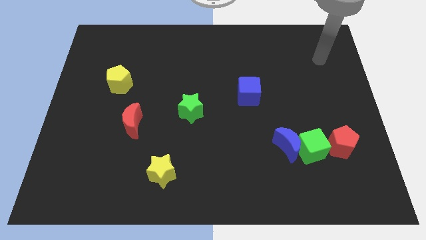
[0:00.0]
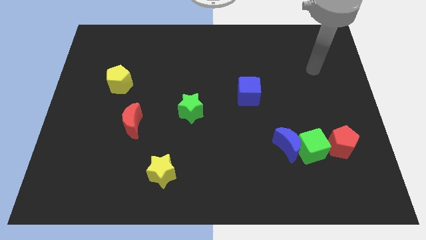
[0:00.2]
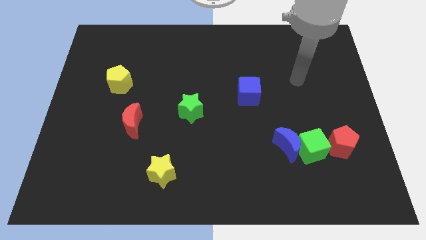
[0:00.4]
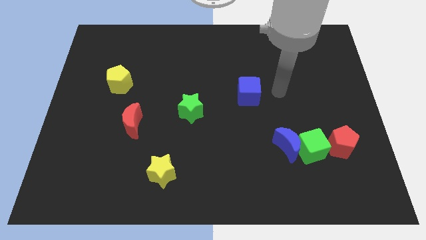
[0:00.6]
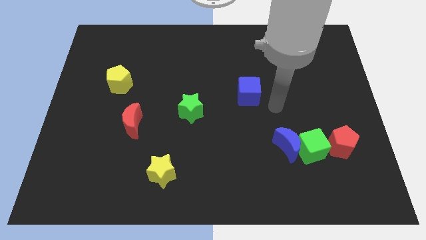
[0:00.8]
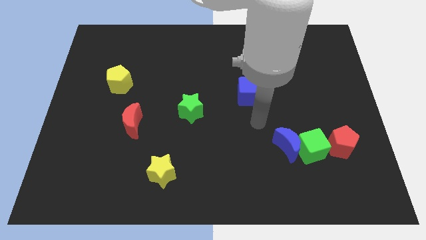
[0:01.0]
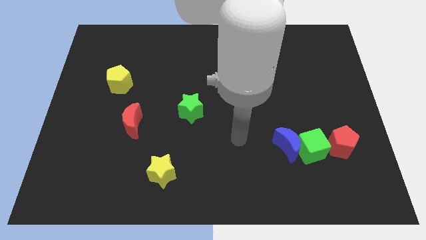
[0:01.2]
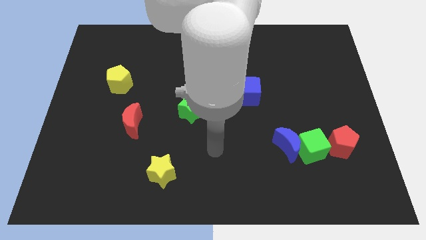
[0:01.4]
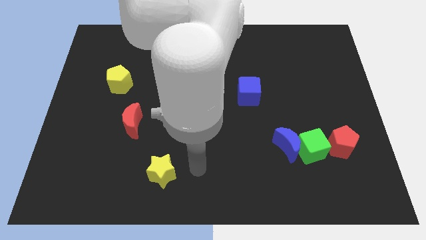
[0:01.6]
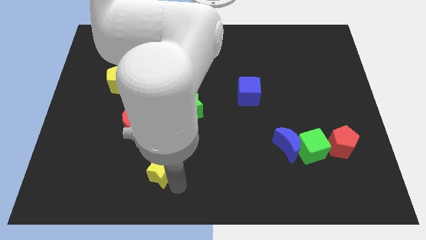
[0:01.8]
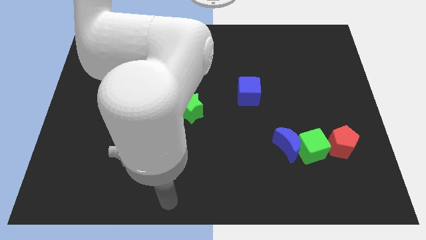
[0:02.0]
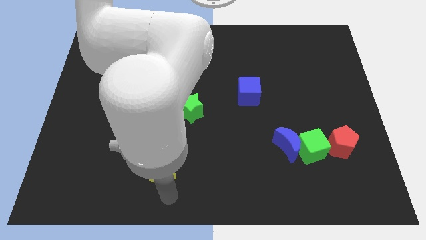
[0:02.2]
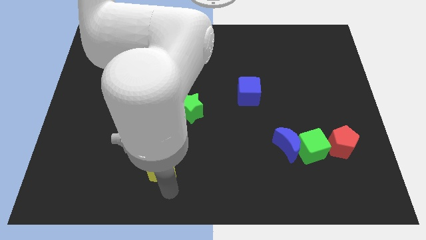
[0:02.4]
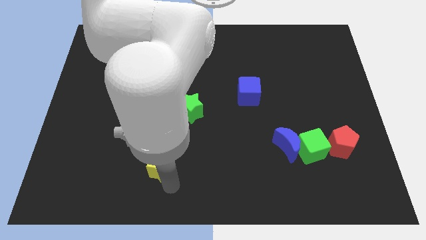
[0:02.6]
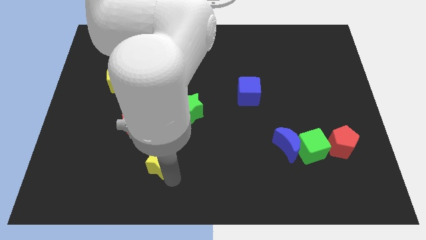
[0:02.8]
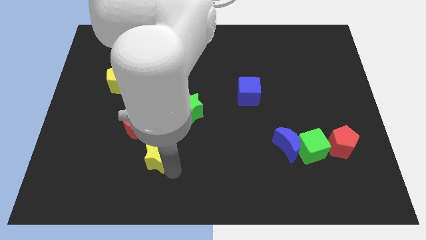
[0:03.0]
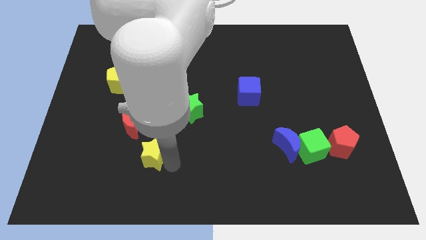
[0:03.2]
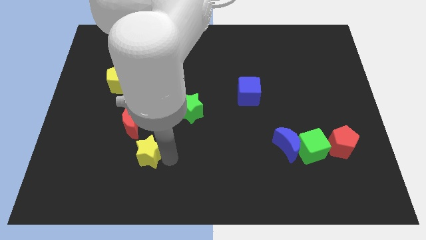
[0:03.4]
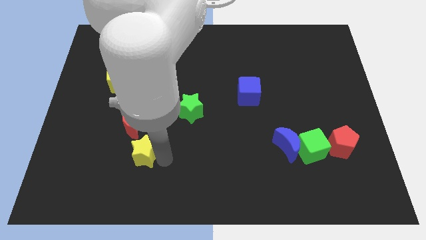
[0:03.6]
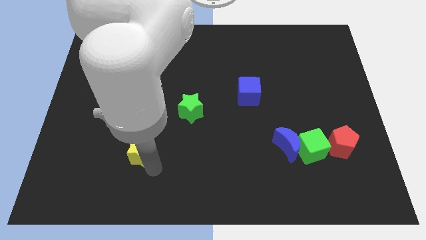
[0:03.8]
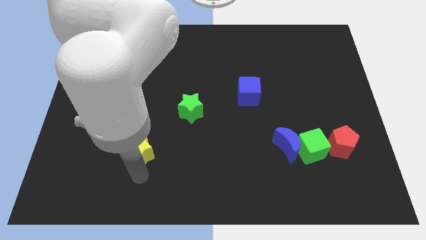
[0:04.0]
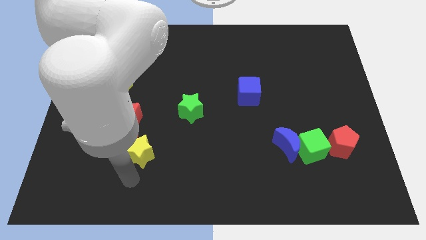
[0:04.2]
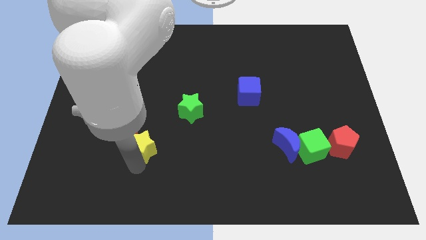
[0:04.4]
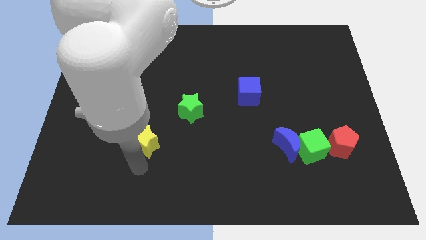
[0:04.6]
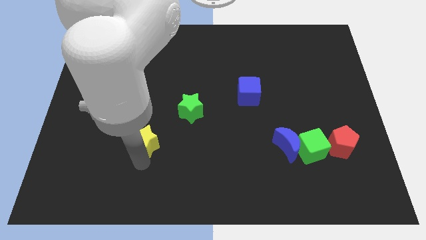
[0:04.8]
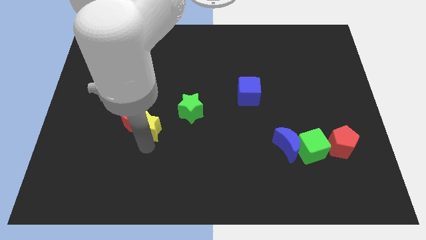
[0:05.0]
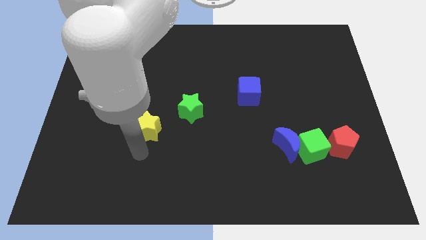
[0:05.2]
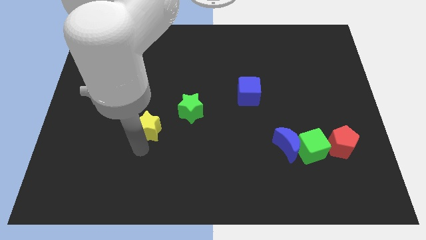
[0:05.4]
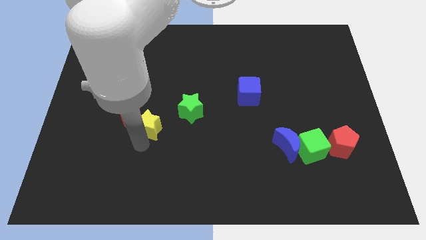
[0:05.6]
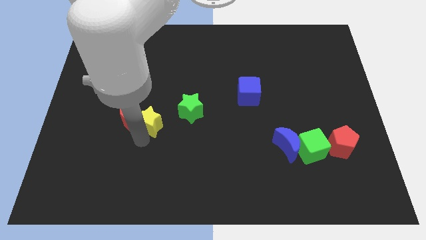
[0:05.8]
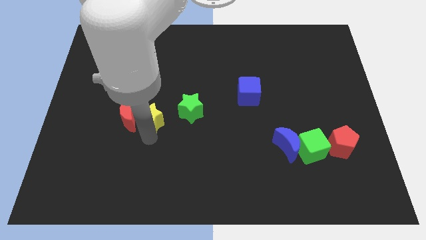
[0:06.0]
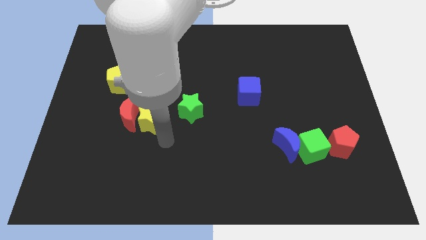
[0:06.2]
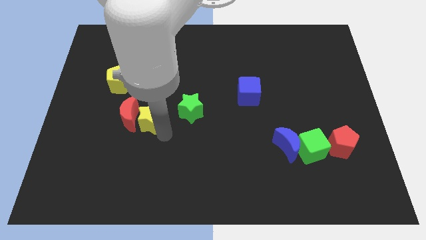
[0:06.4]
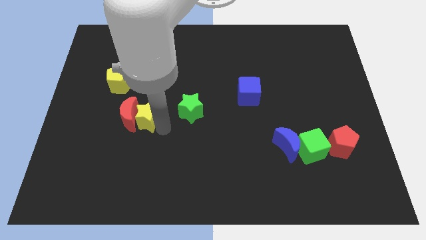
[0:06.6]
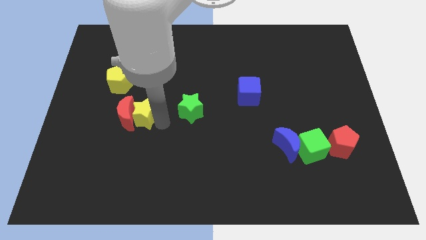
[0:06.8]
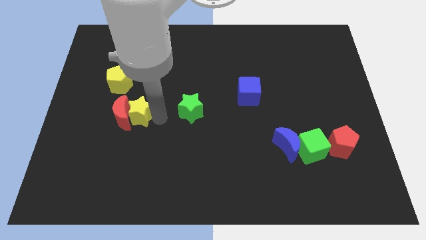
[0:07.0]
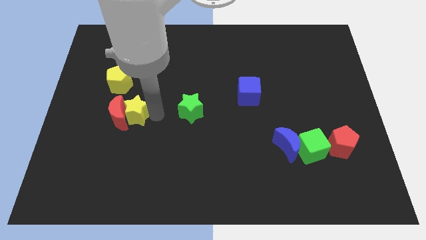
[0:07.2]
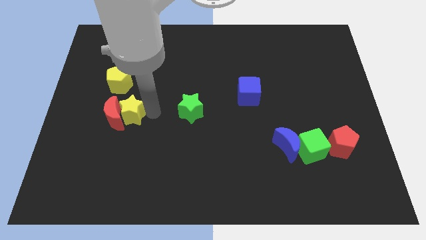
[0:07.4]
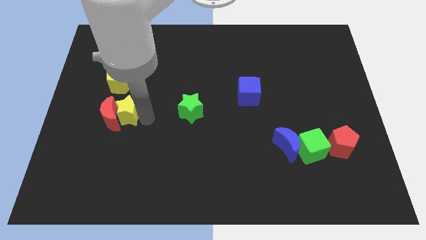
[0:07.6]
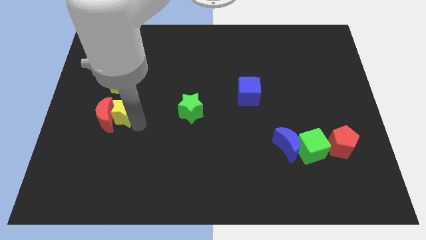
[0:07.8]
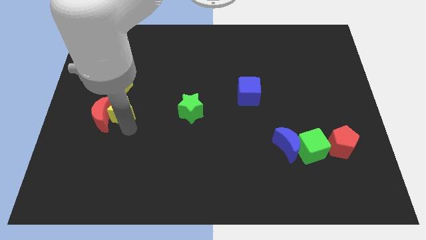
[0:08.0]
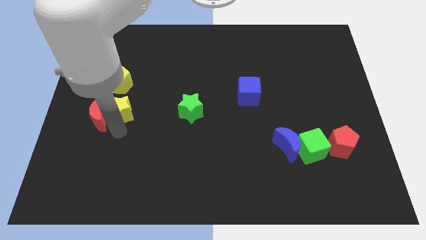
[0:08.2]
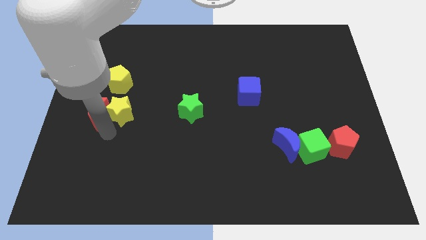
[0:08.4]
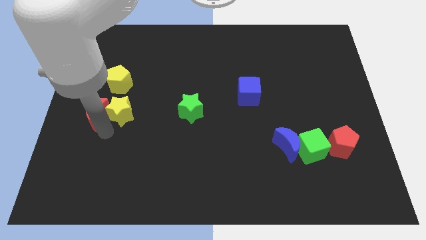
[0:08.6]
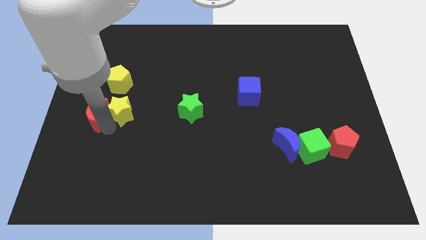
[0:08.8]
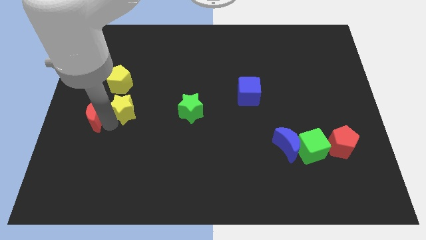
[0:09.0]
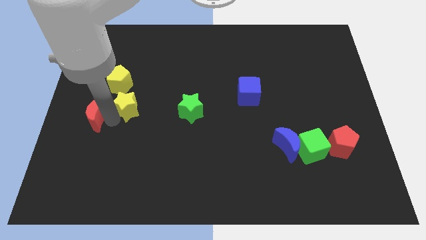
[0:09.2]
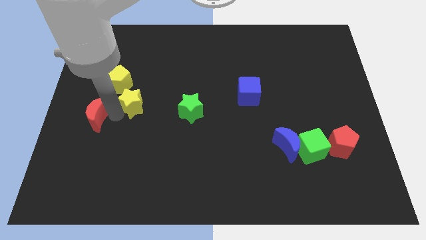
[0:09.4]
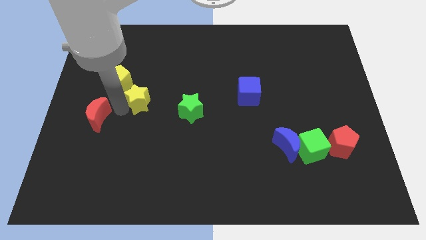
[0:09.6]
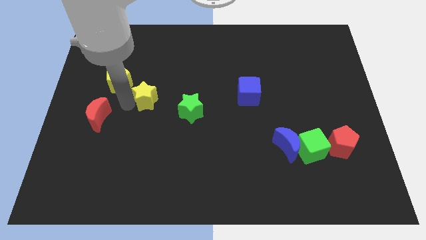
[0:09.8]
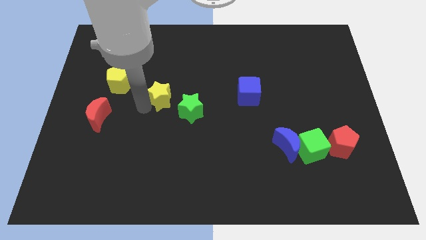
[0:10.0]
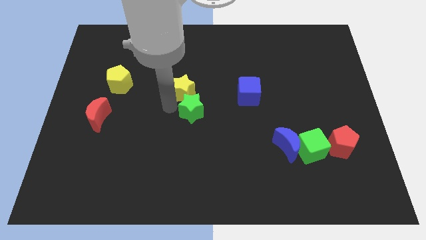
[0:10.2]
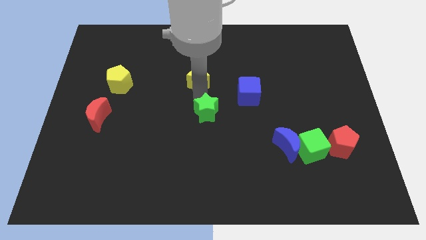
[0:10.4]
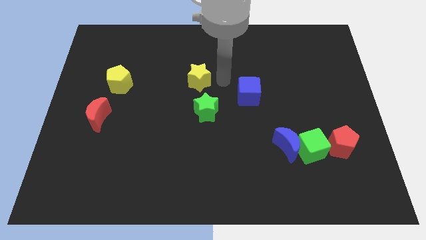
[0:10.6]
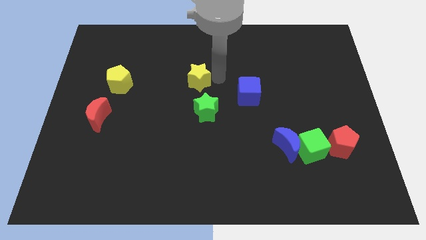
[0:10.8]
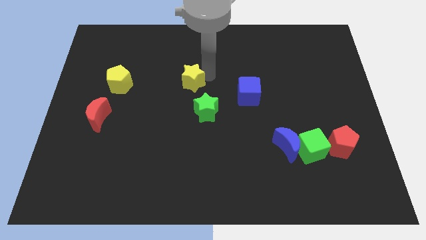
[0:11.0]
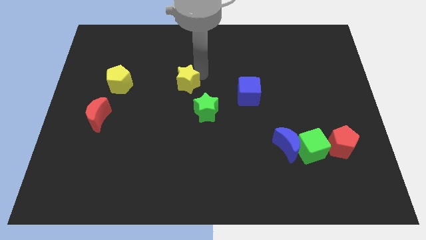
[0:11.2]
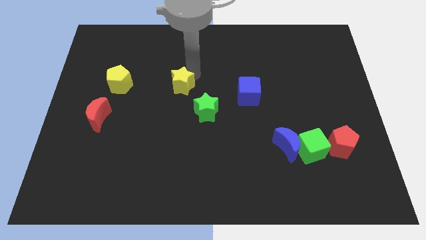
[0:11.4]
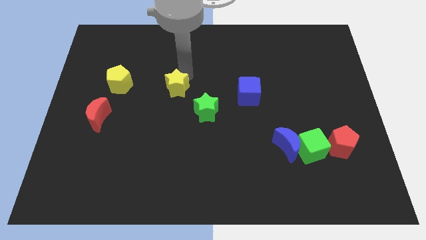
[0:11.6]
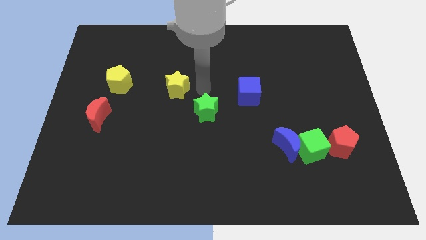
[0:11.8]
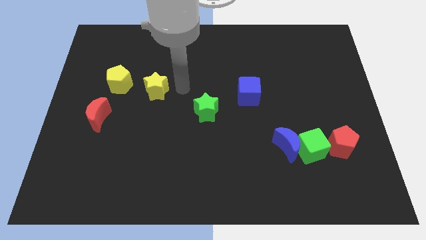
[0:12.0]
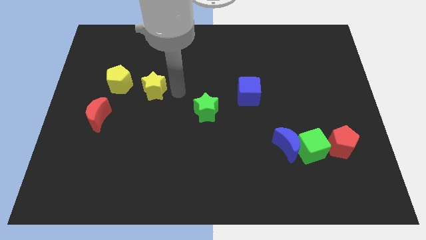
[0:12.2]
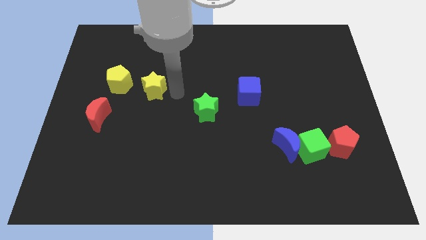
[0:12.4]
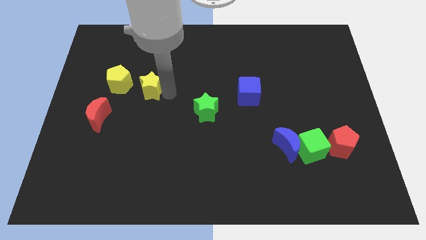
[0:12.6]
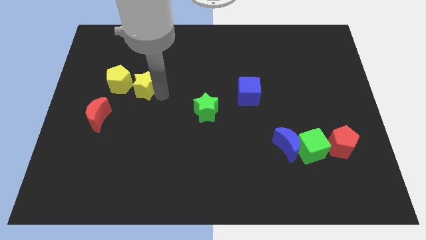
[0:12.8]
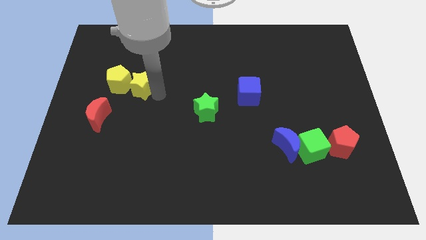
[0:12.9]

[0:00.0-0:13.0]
push the yellow star close to the yellow pentagon
